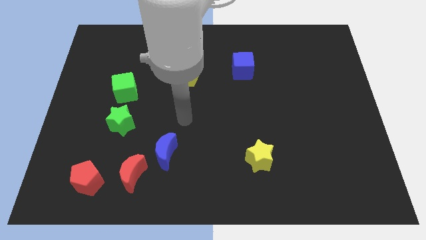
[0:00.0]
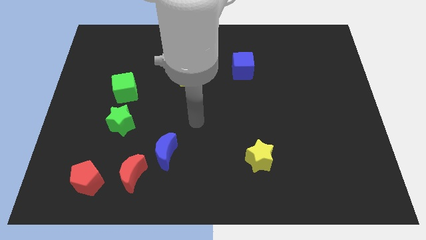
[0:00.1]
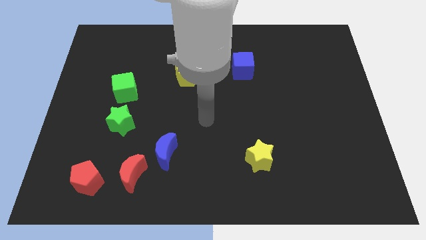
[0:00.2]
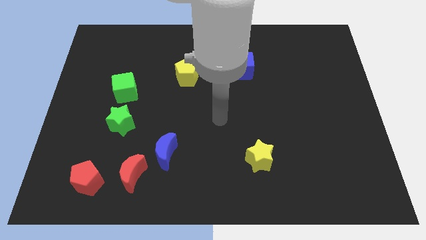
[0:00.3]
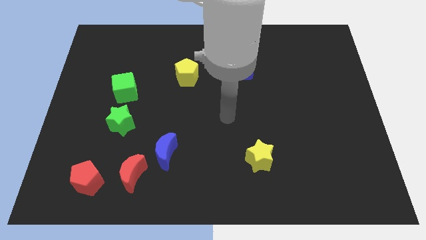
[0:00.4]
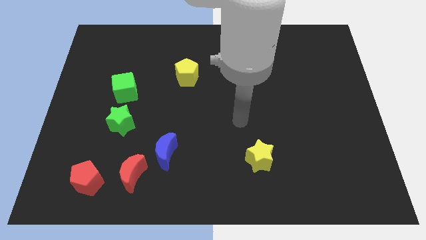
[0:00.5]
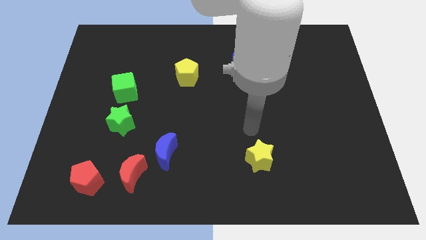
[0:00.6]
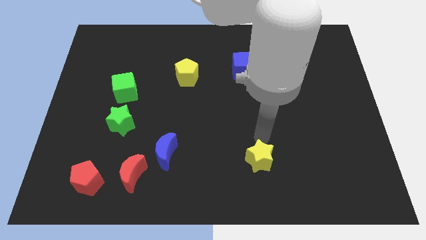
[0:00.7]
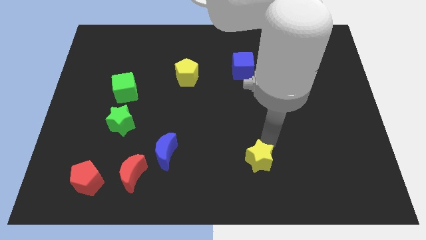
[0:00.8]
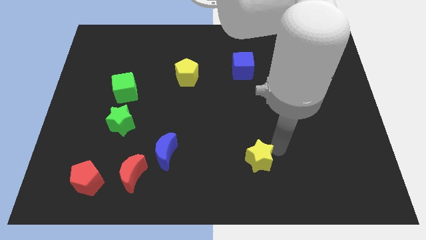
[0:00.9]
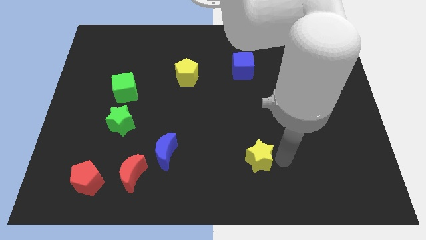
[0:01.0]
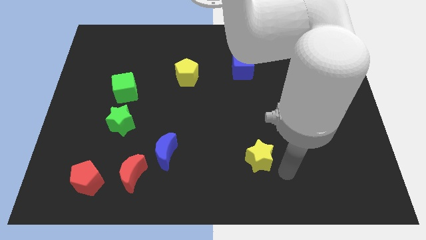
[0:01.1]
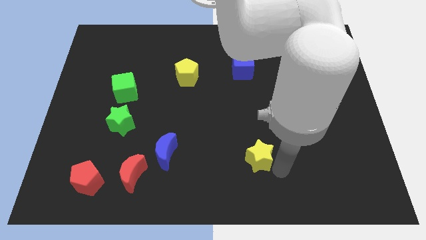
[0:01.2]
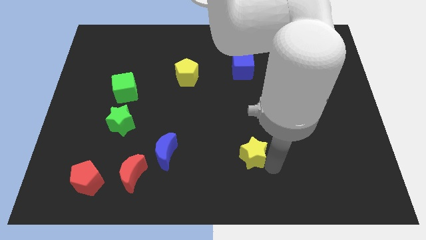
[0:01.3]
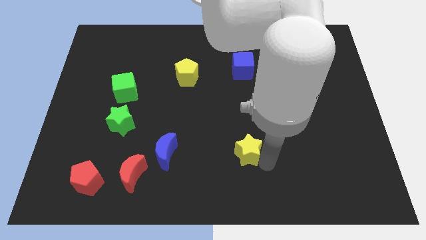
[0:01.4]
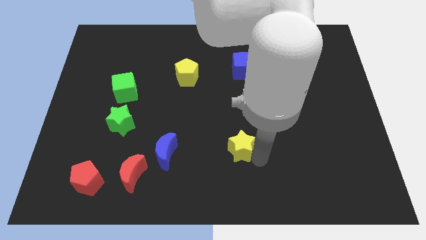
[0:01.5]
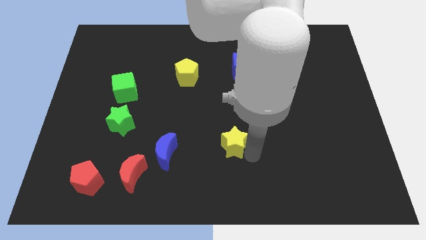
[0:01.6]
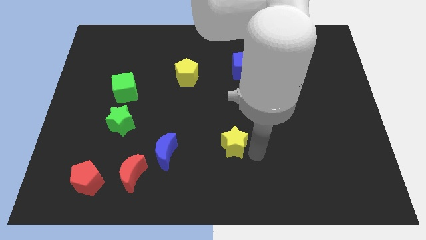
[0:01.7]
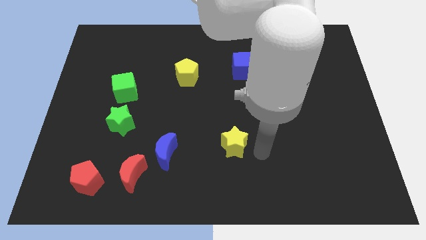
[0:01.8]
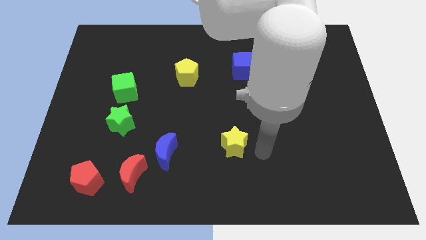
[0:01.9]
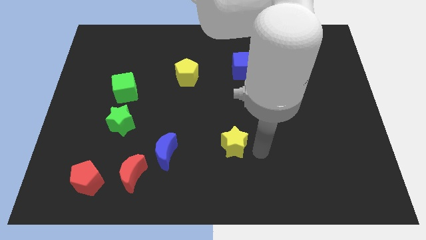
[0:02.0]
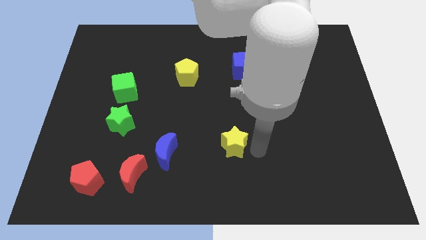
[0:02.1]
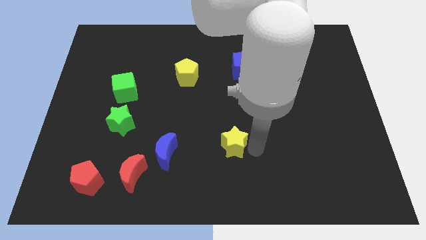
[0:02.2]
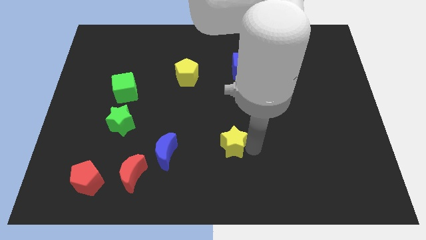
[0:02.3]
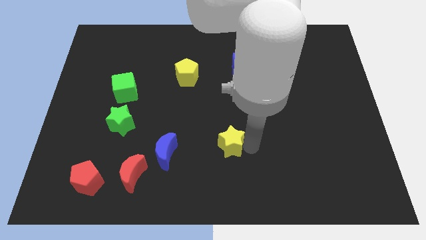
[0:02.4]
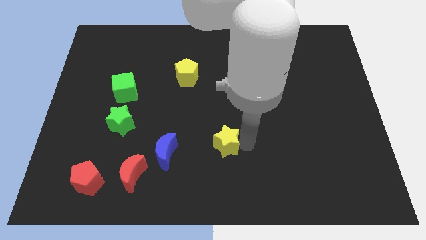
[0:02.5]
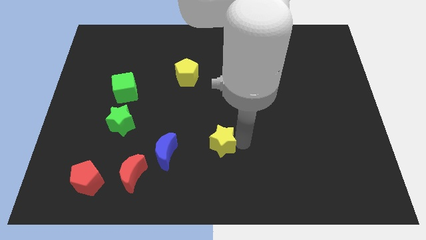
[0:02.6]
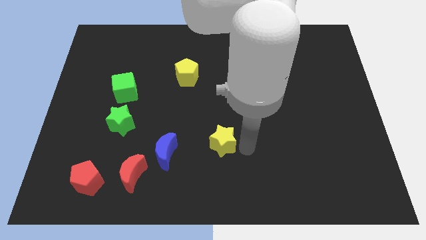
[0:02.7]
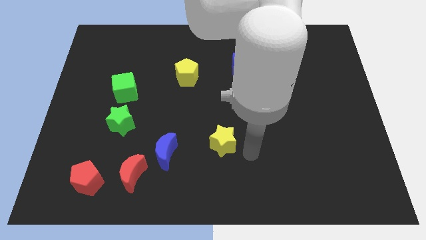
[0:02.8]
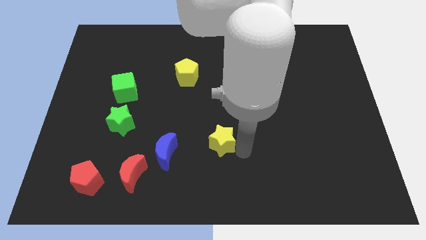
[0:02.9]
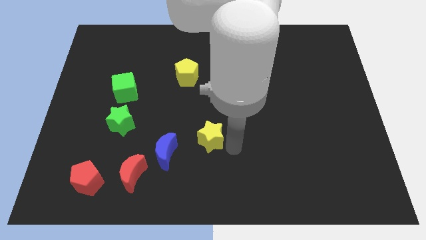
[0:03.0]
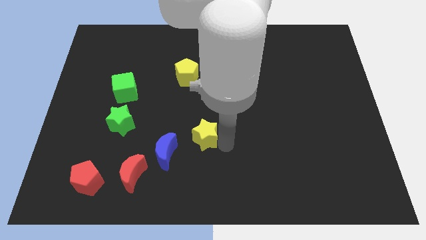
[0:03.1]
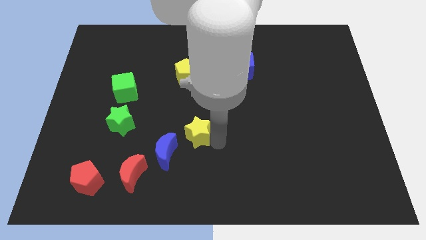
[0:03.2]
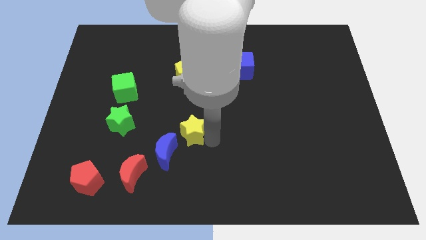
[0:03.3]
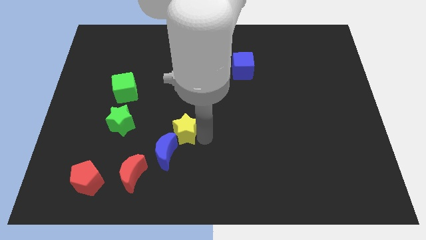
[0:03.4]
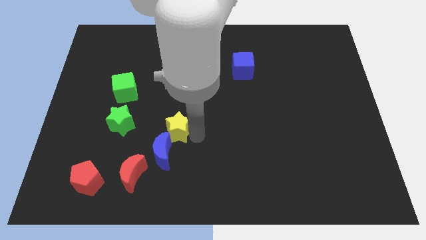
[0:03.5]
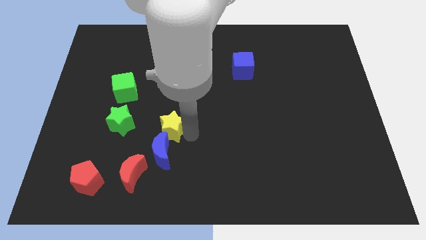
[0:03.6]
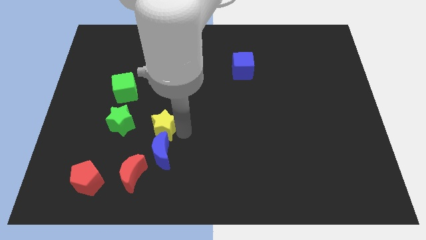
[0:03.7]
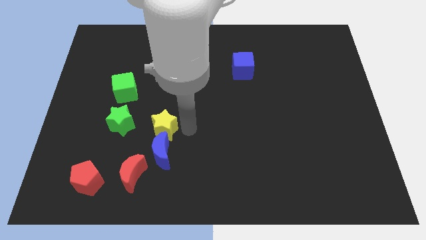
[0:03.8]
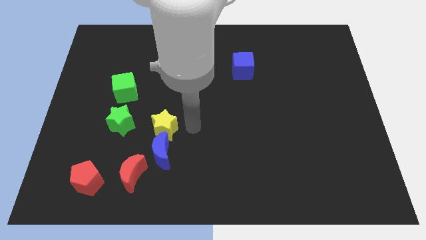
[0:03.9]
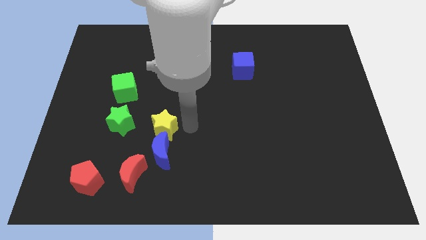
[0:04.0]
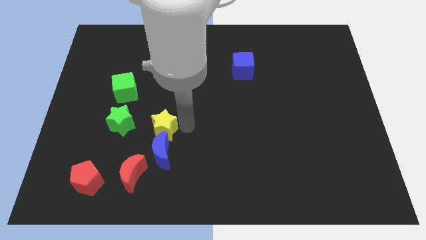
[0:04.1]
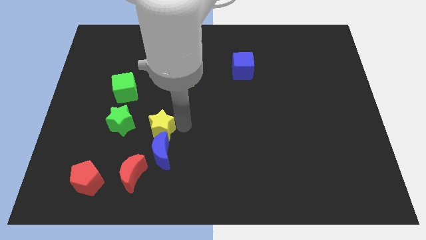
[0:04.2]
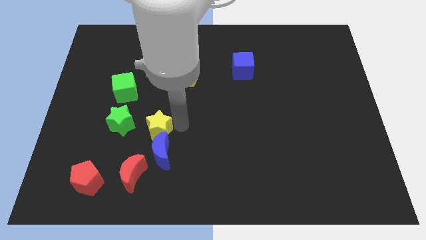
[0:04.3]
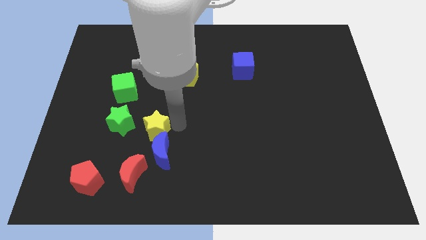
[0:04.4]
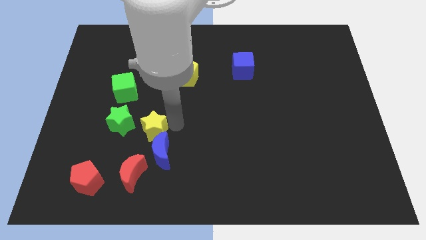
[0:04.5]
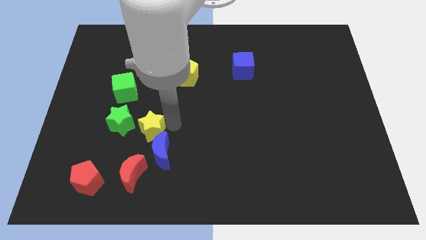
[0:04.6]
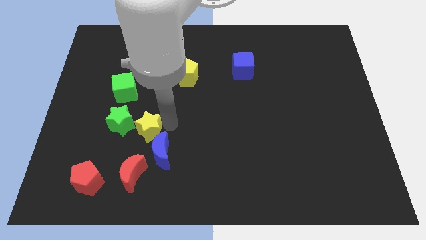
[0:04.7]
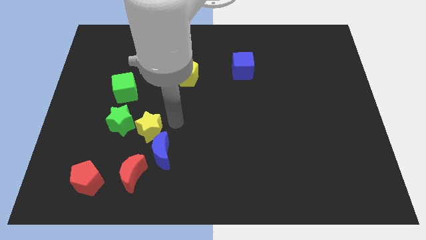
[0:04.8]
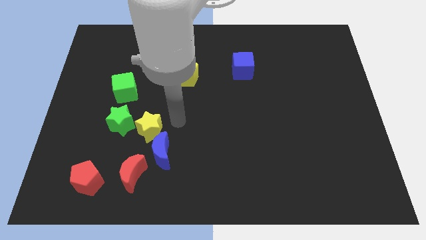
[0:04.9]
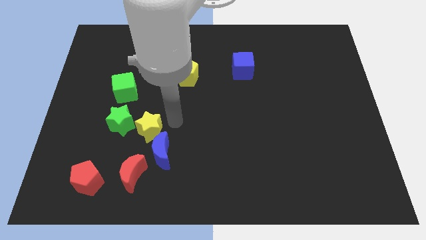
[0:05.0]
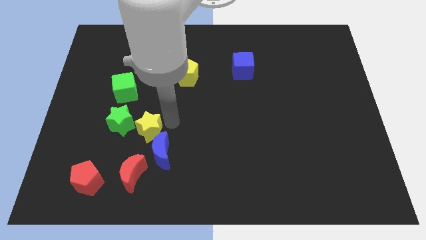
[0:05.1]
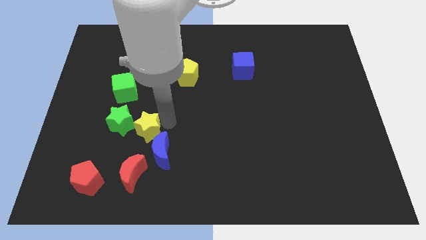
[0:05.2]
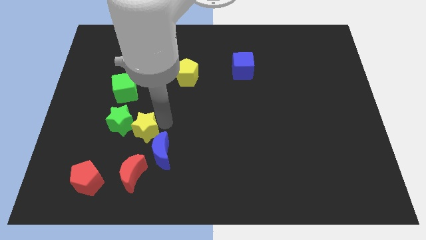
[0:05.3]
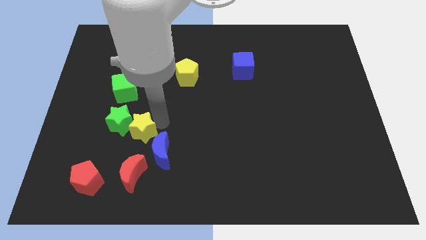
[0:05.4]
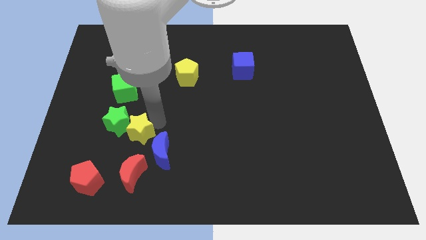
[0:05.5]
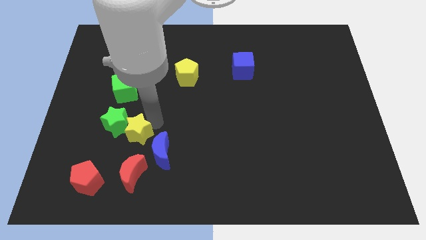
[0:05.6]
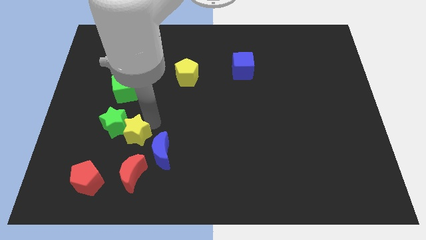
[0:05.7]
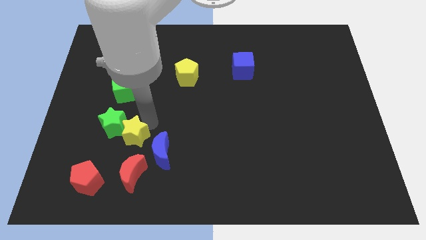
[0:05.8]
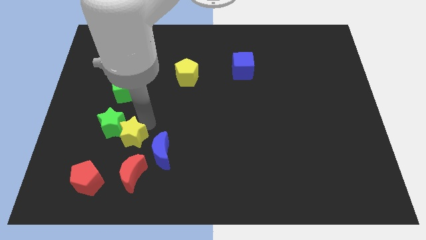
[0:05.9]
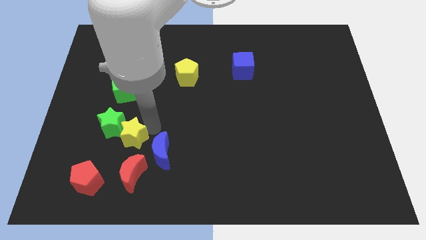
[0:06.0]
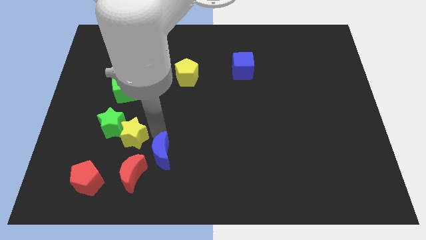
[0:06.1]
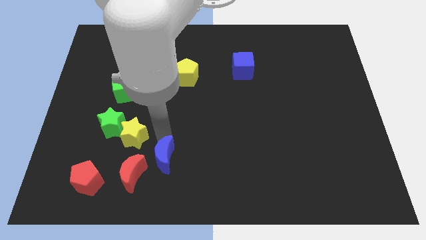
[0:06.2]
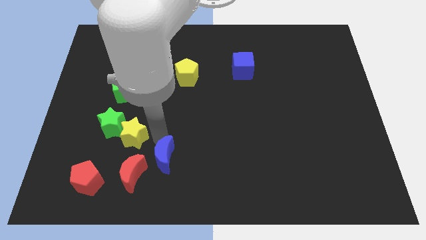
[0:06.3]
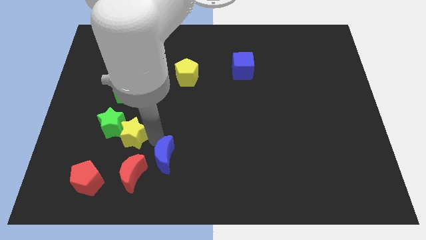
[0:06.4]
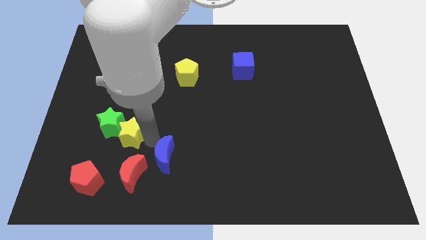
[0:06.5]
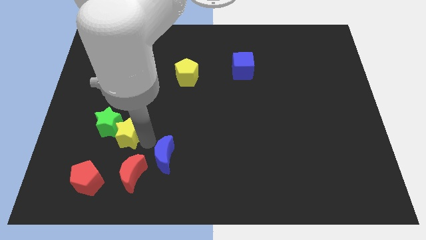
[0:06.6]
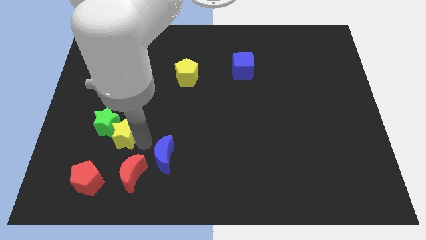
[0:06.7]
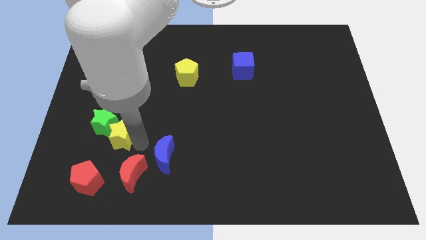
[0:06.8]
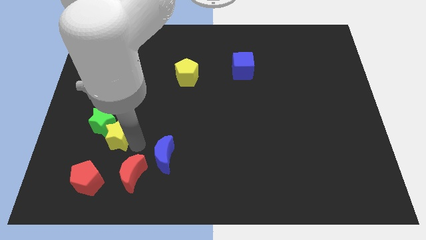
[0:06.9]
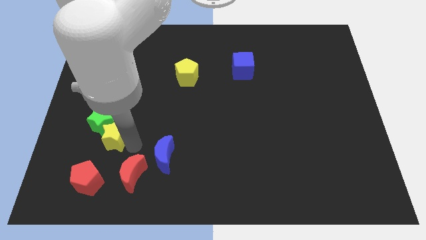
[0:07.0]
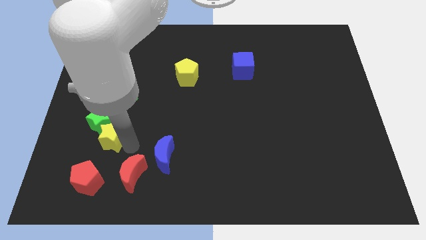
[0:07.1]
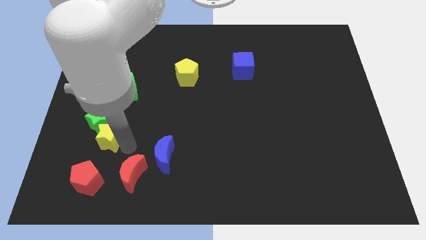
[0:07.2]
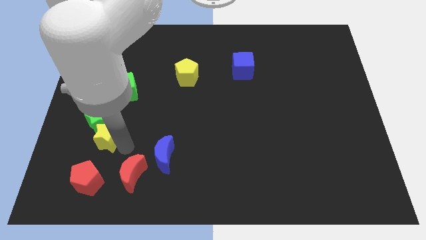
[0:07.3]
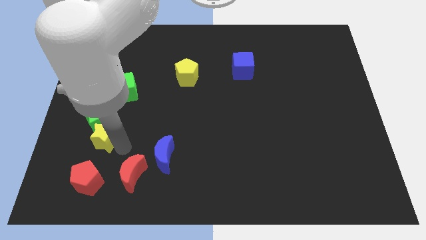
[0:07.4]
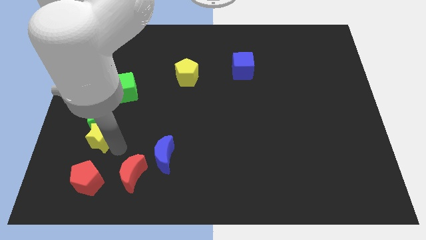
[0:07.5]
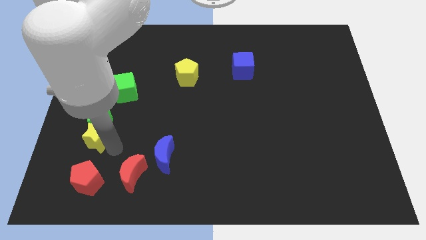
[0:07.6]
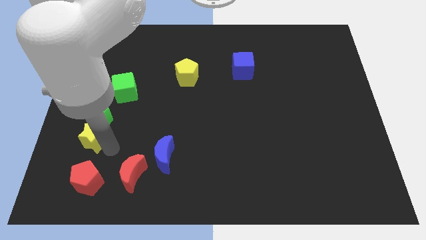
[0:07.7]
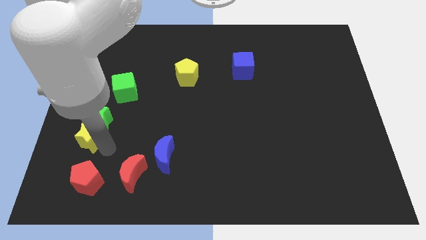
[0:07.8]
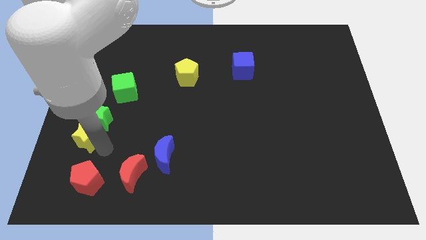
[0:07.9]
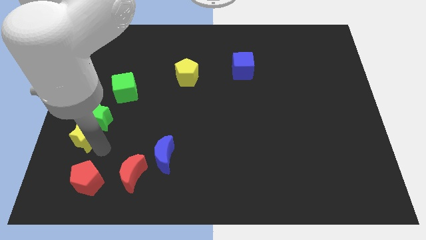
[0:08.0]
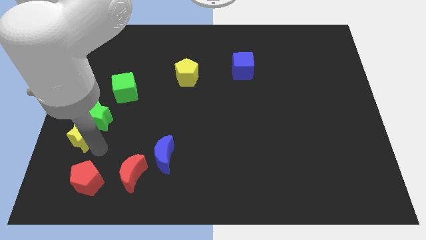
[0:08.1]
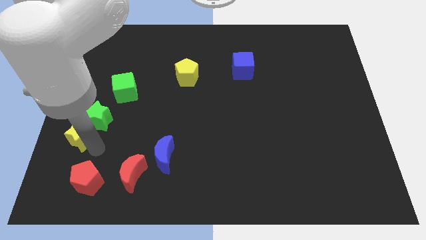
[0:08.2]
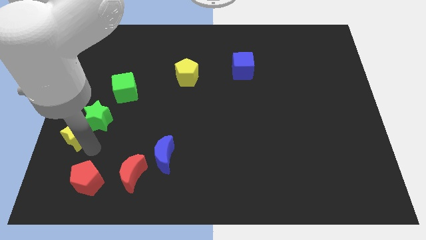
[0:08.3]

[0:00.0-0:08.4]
slide the yellow star to the left side
